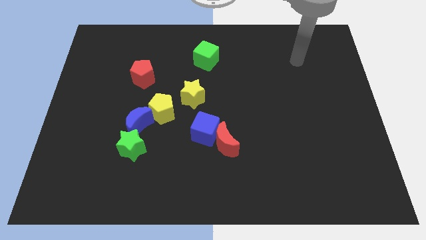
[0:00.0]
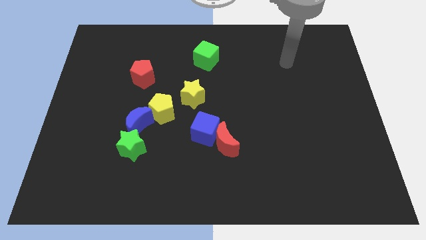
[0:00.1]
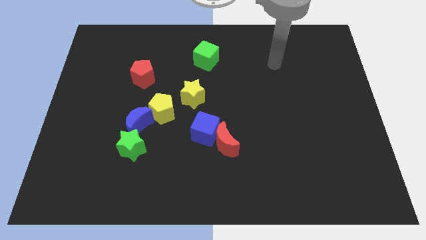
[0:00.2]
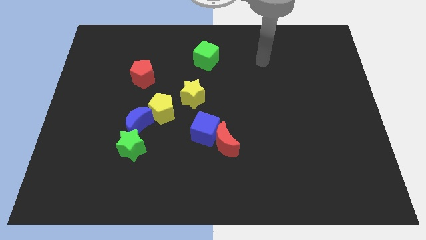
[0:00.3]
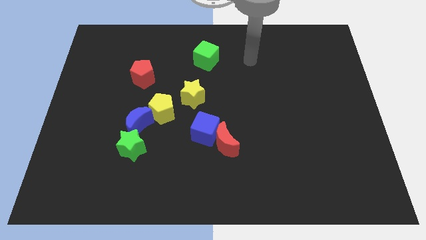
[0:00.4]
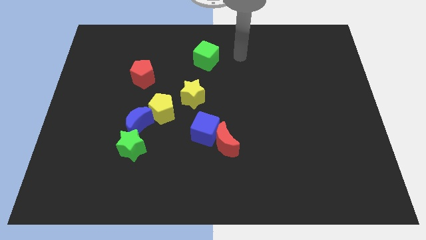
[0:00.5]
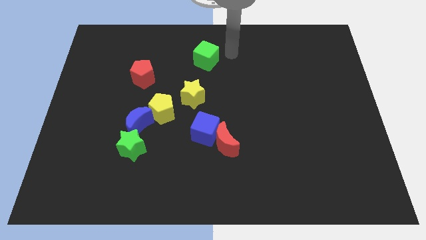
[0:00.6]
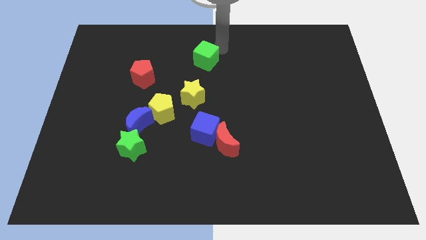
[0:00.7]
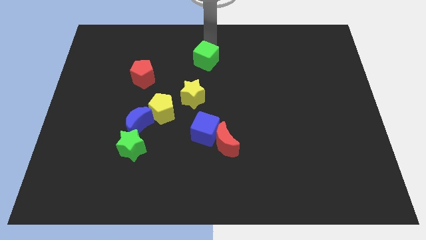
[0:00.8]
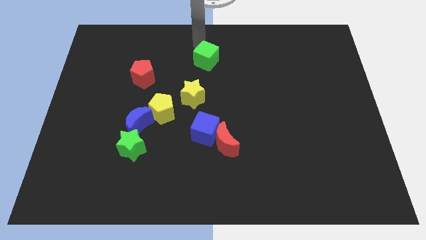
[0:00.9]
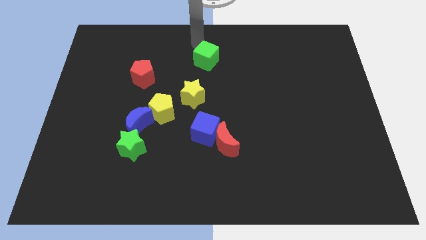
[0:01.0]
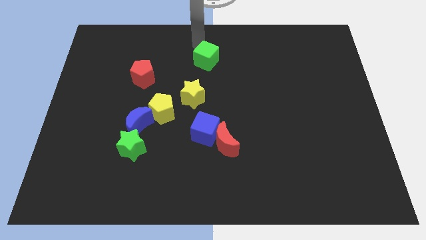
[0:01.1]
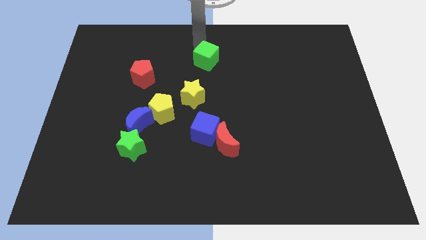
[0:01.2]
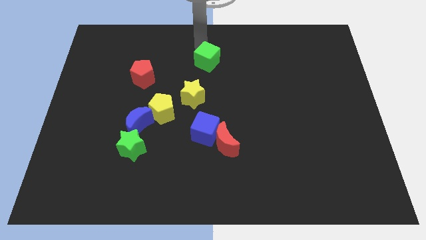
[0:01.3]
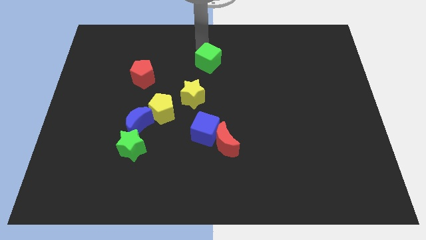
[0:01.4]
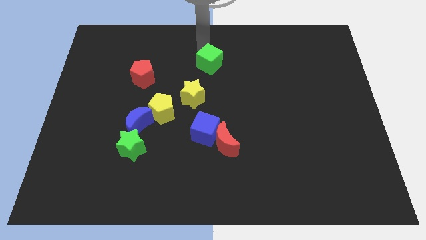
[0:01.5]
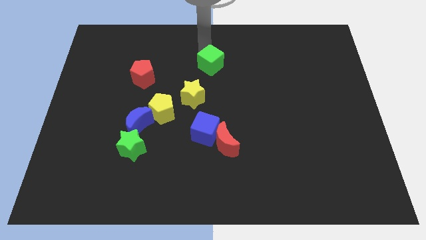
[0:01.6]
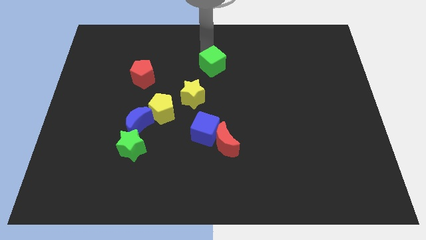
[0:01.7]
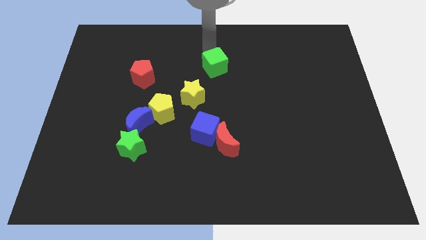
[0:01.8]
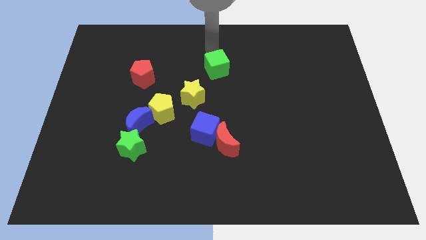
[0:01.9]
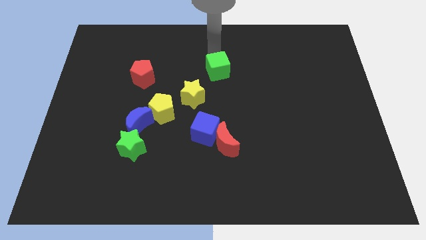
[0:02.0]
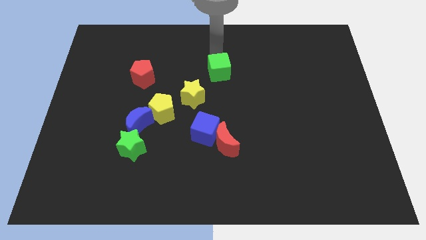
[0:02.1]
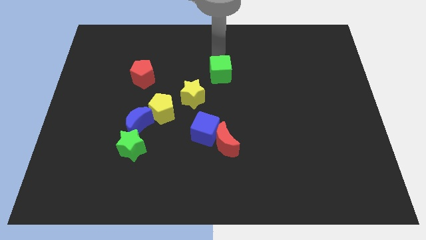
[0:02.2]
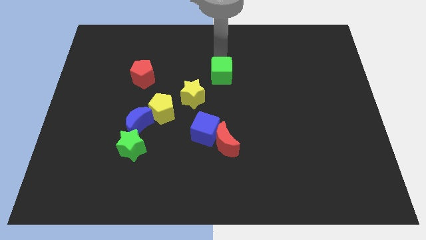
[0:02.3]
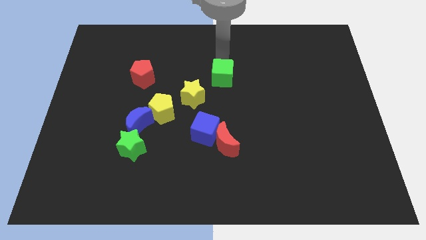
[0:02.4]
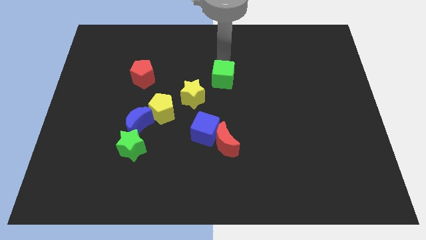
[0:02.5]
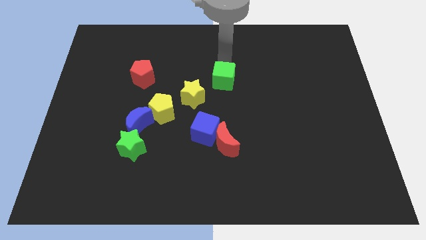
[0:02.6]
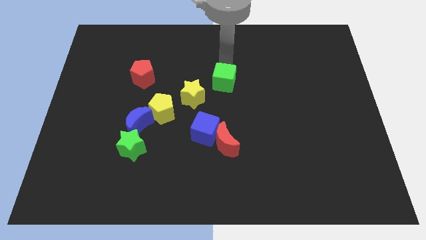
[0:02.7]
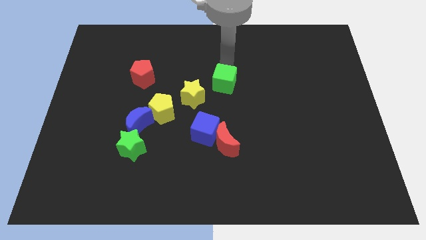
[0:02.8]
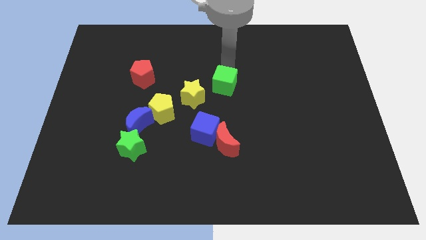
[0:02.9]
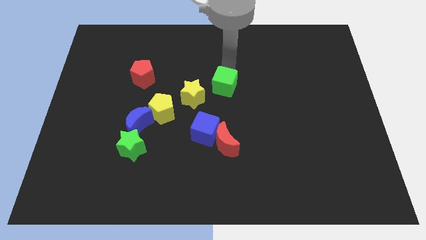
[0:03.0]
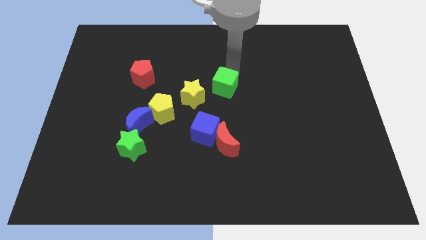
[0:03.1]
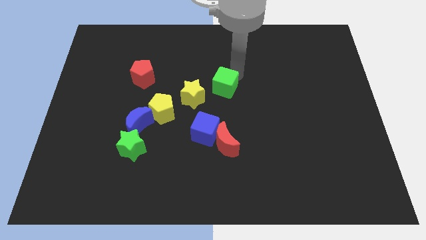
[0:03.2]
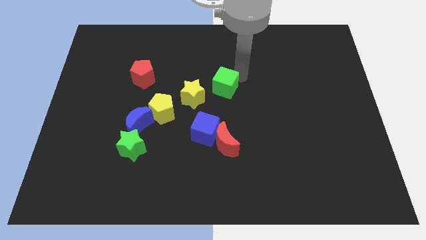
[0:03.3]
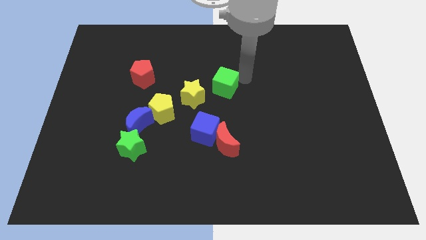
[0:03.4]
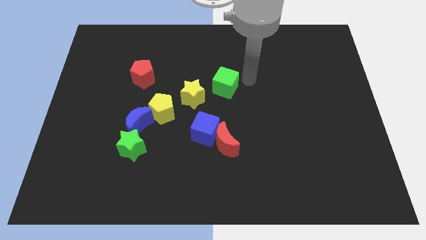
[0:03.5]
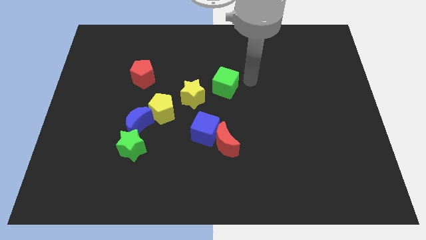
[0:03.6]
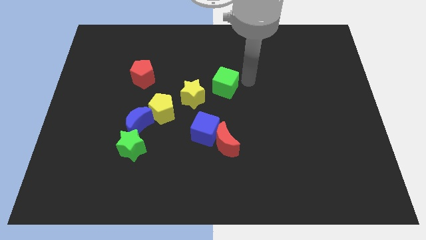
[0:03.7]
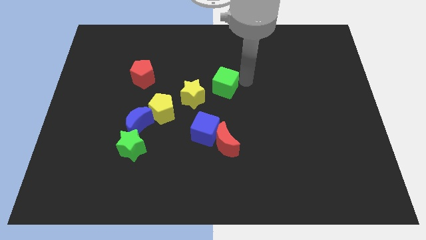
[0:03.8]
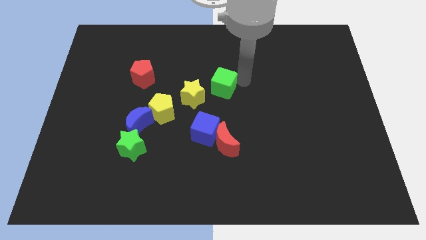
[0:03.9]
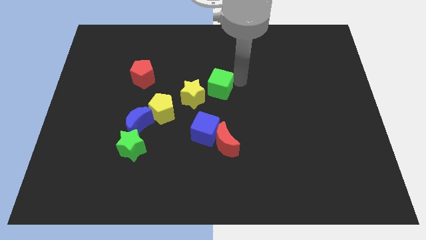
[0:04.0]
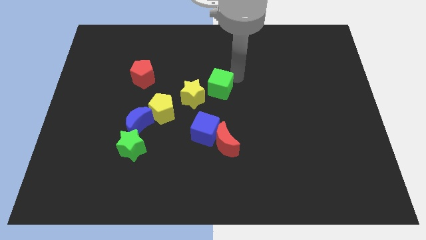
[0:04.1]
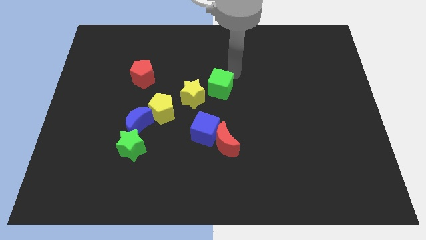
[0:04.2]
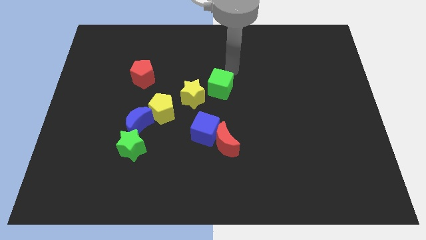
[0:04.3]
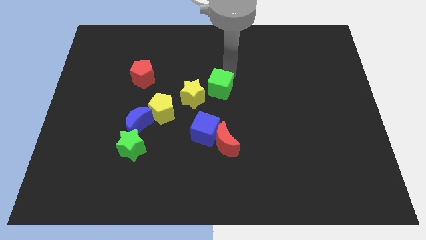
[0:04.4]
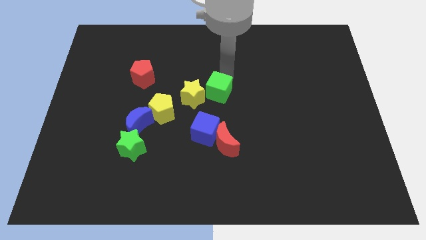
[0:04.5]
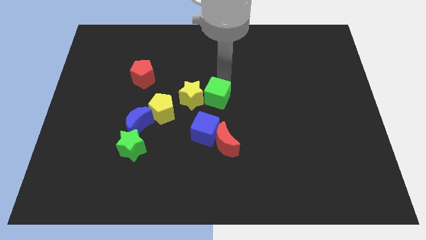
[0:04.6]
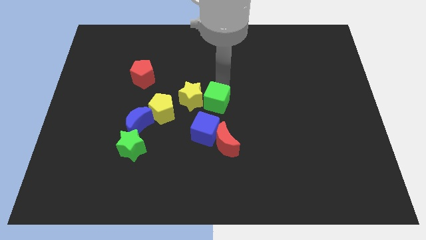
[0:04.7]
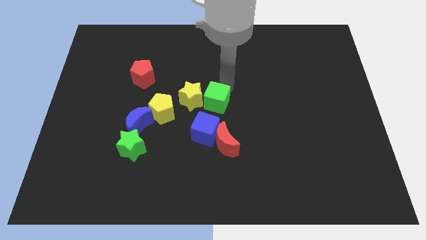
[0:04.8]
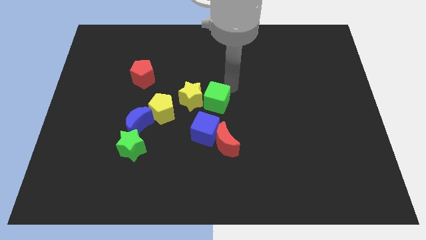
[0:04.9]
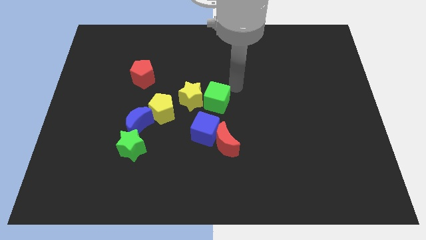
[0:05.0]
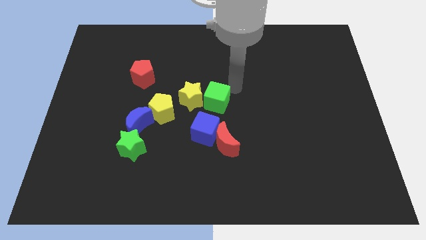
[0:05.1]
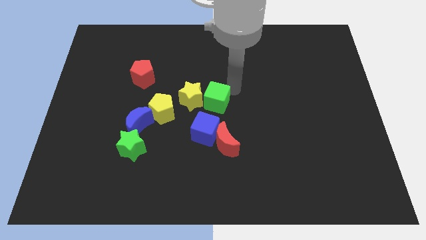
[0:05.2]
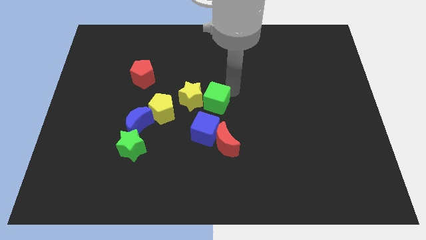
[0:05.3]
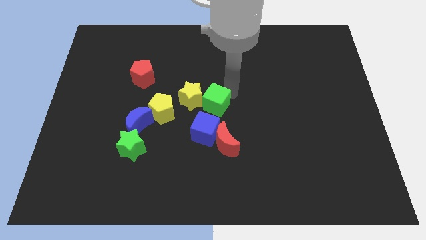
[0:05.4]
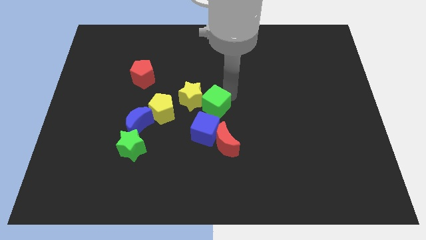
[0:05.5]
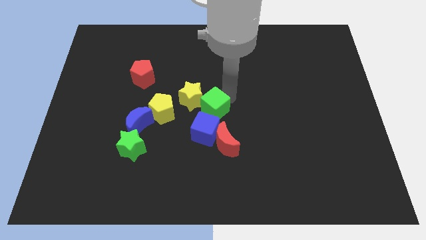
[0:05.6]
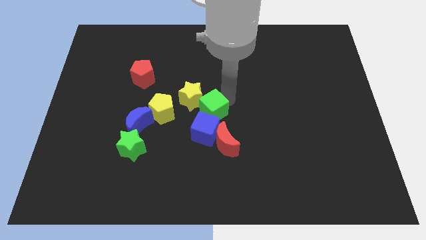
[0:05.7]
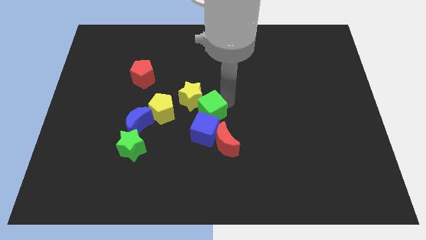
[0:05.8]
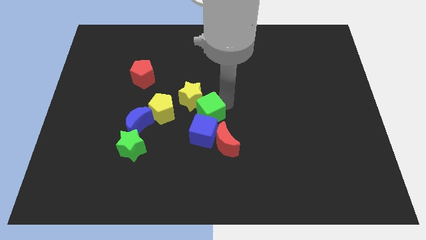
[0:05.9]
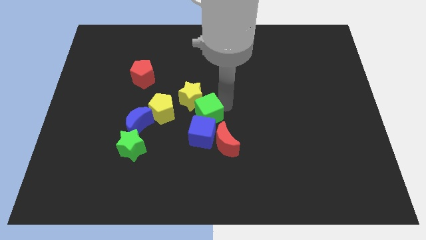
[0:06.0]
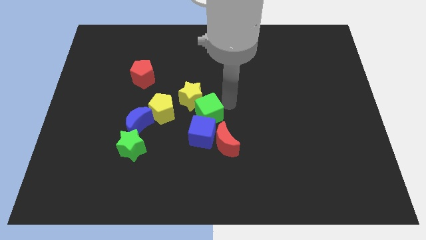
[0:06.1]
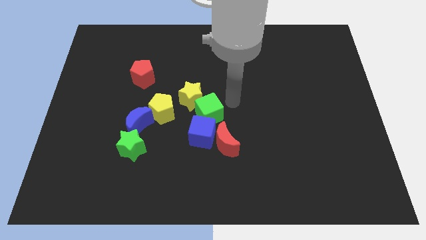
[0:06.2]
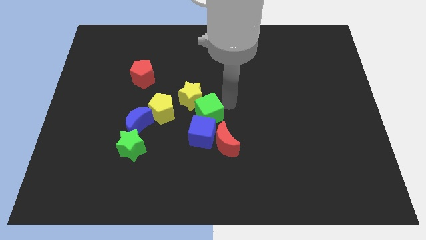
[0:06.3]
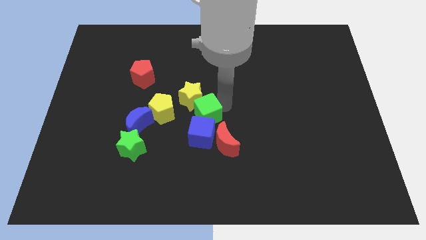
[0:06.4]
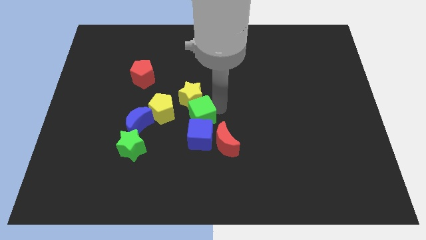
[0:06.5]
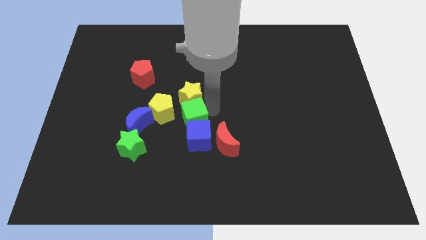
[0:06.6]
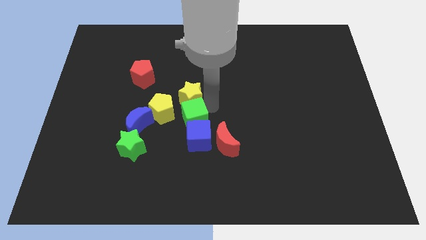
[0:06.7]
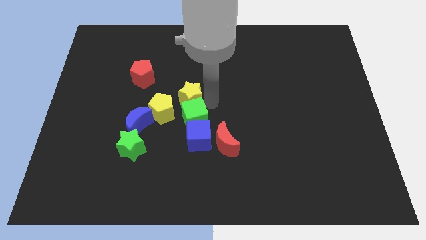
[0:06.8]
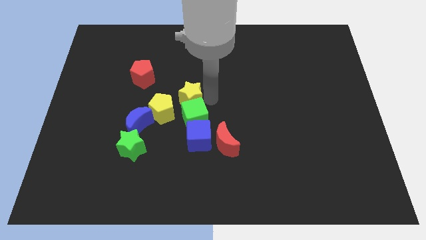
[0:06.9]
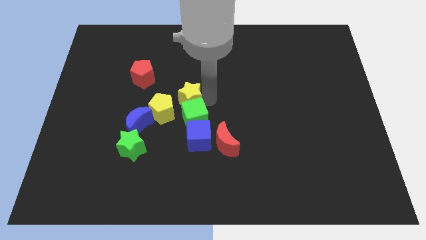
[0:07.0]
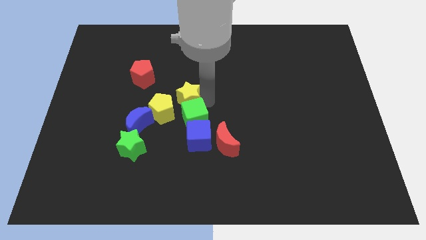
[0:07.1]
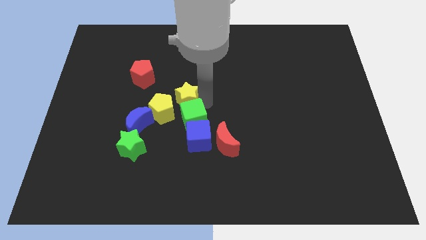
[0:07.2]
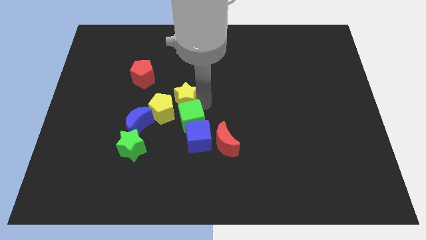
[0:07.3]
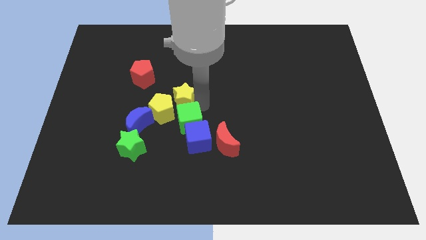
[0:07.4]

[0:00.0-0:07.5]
move the green cube down

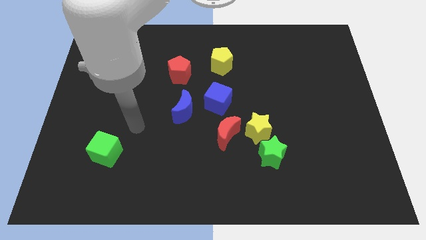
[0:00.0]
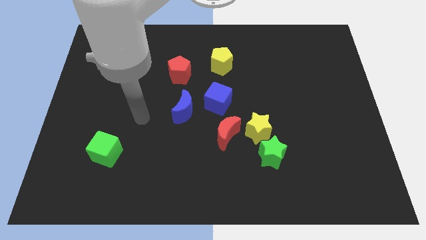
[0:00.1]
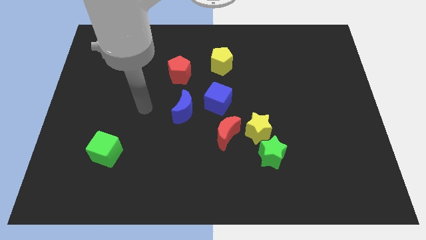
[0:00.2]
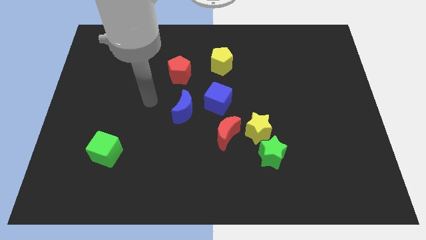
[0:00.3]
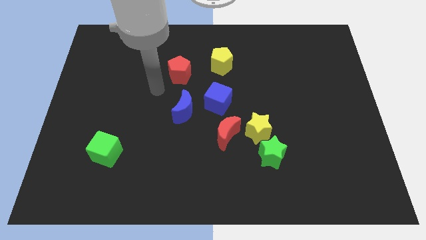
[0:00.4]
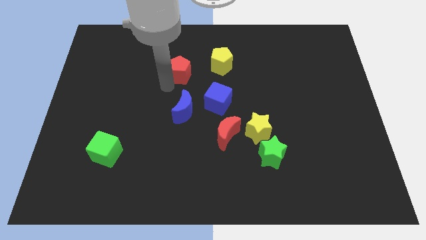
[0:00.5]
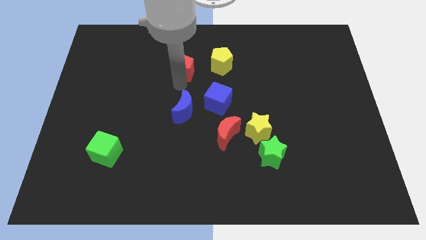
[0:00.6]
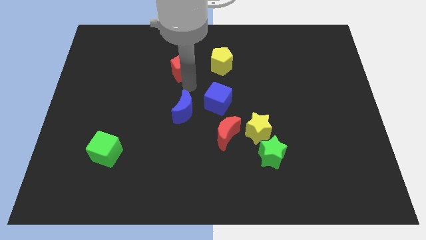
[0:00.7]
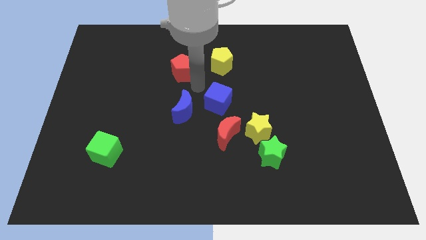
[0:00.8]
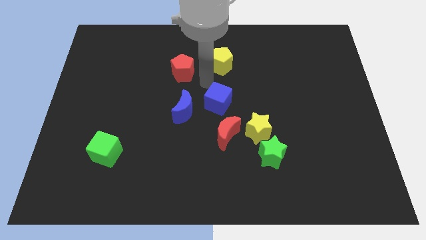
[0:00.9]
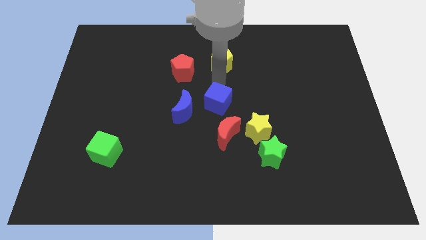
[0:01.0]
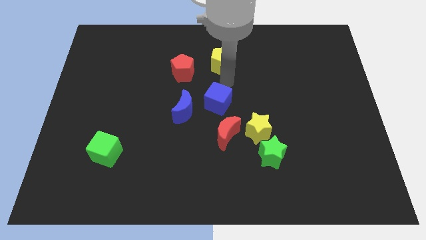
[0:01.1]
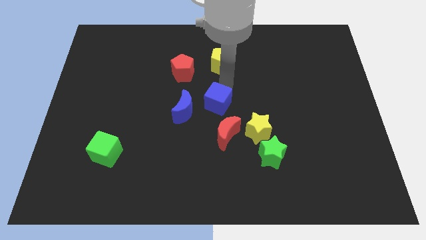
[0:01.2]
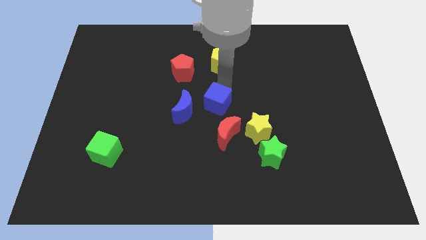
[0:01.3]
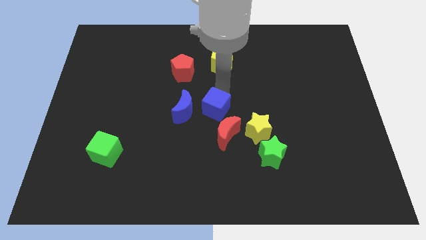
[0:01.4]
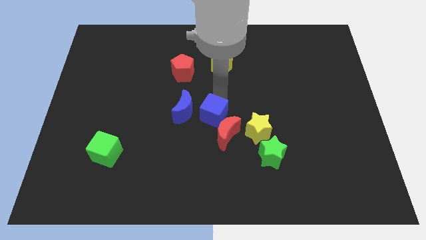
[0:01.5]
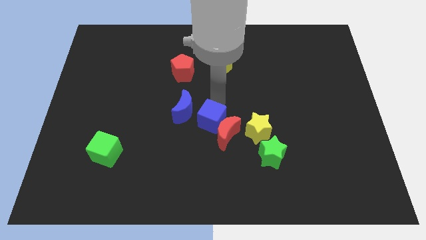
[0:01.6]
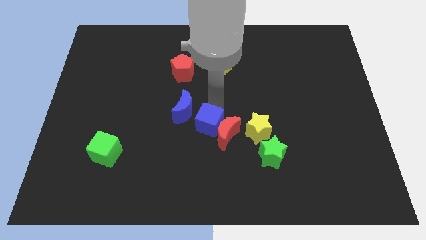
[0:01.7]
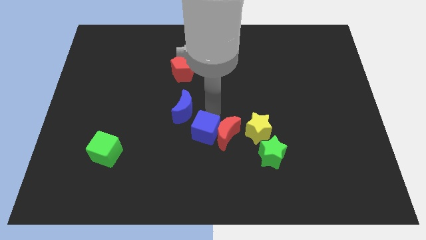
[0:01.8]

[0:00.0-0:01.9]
push the blue cube down somewhat
